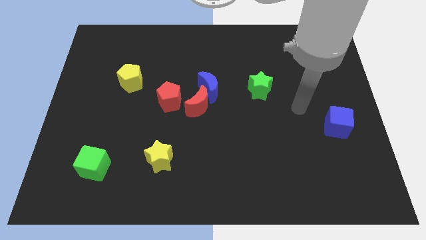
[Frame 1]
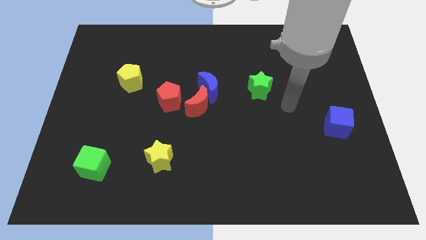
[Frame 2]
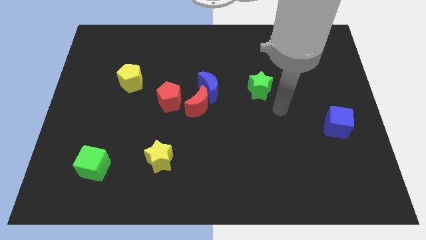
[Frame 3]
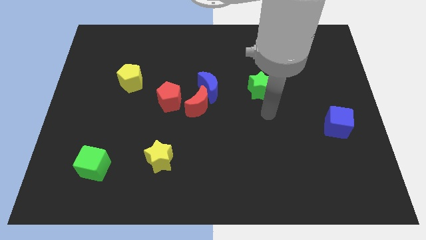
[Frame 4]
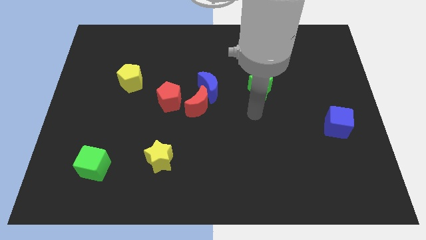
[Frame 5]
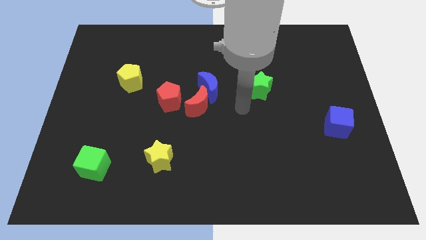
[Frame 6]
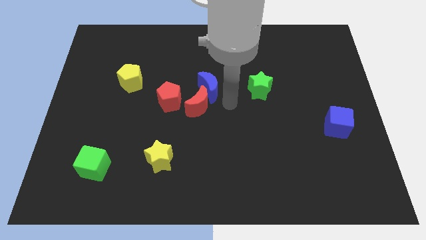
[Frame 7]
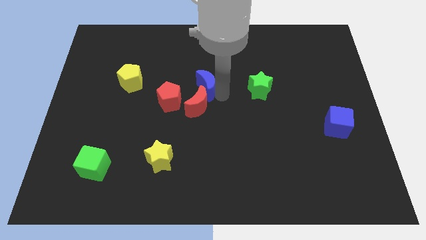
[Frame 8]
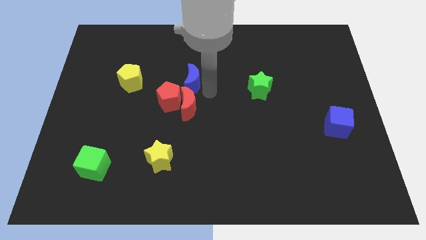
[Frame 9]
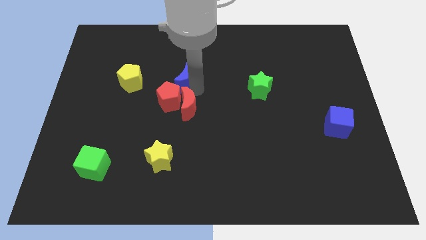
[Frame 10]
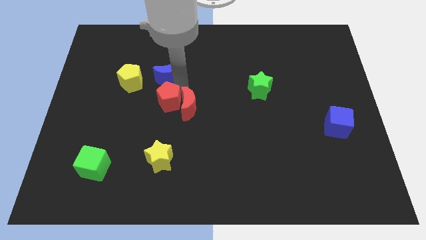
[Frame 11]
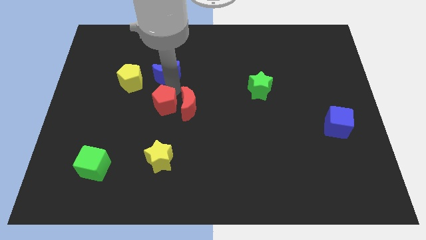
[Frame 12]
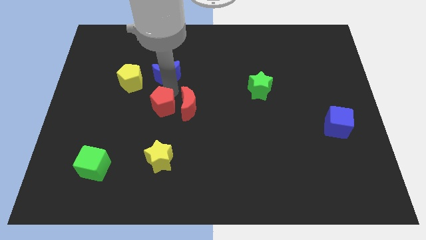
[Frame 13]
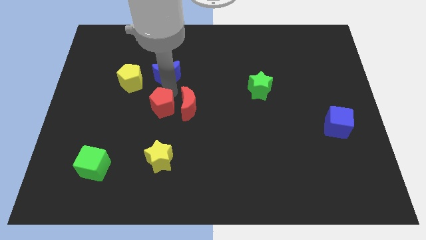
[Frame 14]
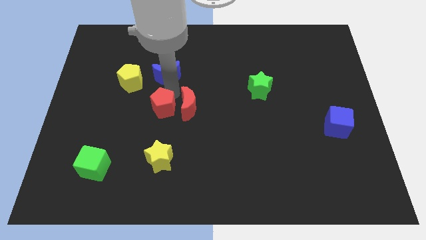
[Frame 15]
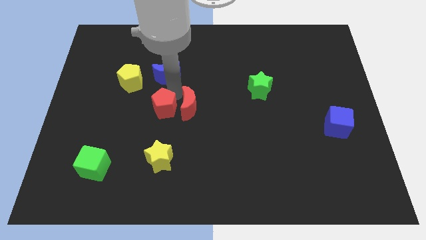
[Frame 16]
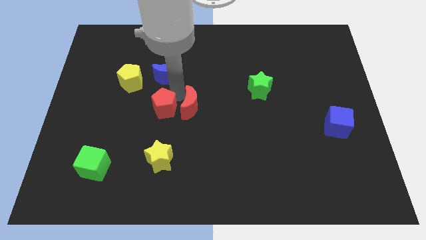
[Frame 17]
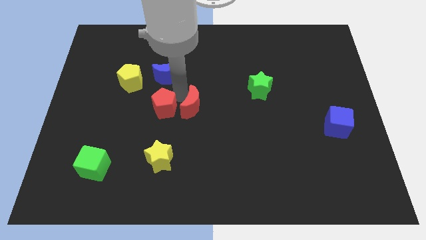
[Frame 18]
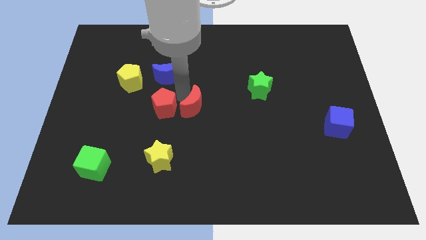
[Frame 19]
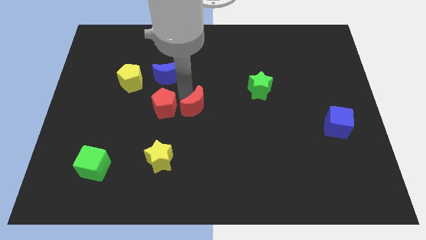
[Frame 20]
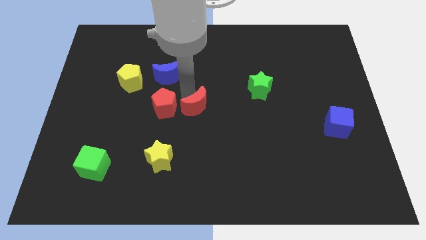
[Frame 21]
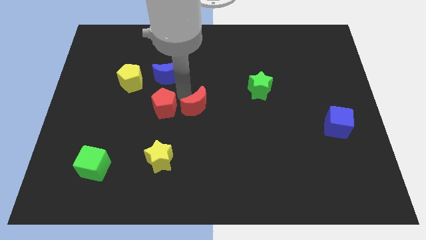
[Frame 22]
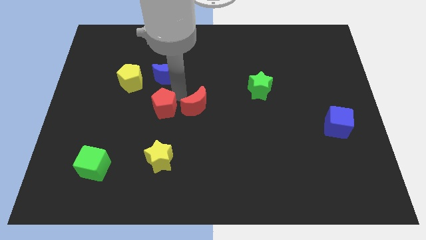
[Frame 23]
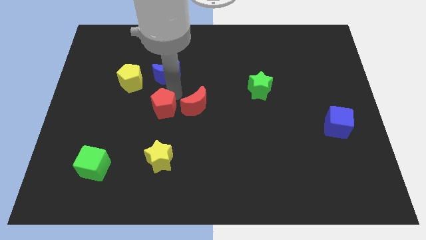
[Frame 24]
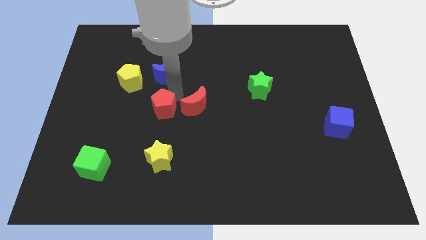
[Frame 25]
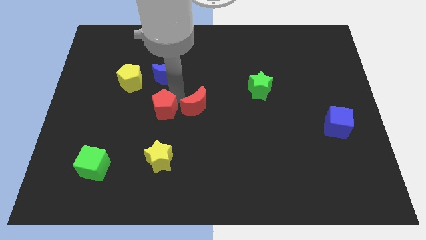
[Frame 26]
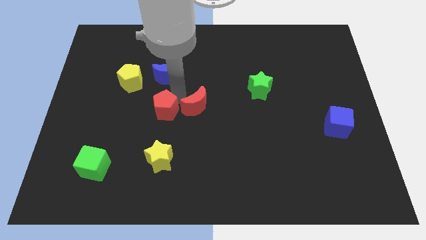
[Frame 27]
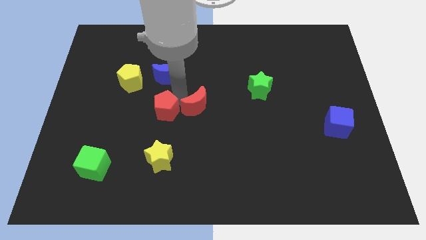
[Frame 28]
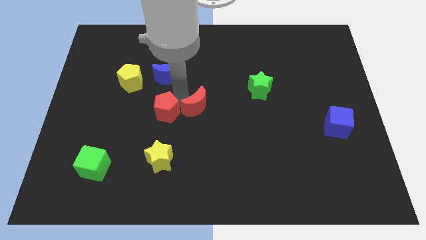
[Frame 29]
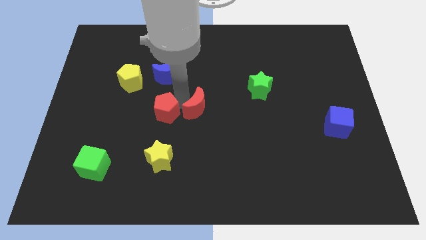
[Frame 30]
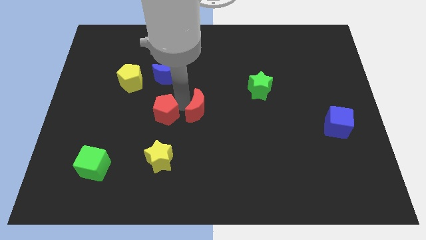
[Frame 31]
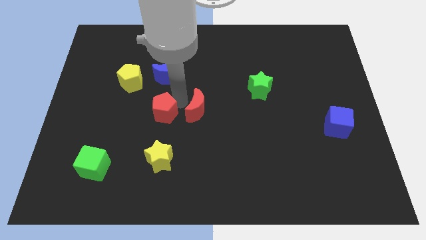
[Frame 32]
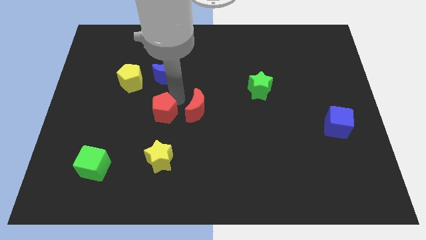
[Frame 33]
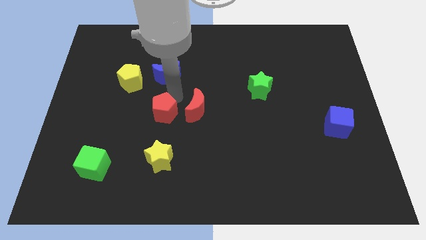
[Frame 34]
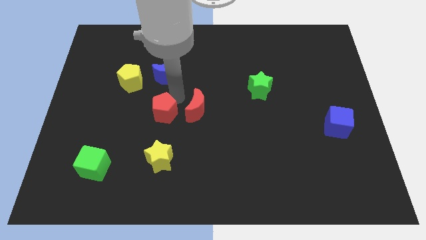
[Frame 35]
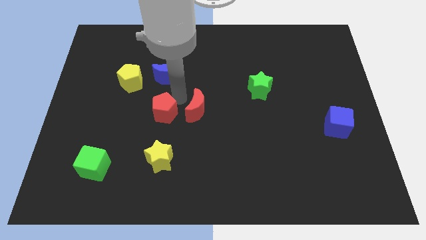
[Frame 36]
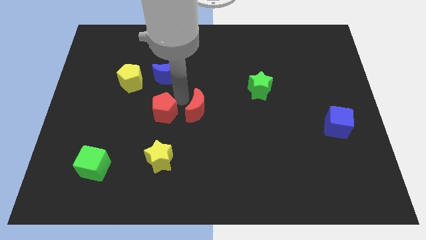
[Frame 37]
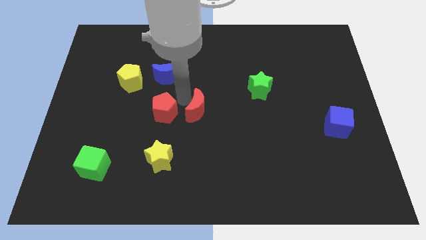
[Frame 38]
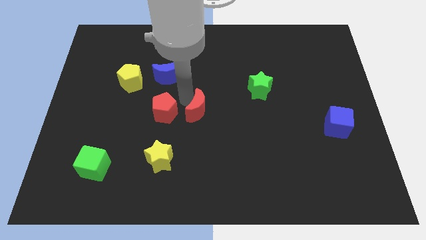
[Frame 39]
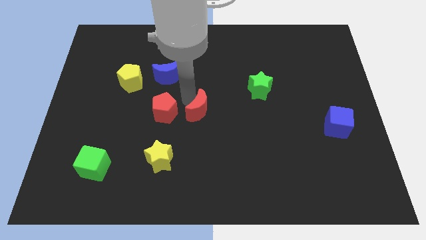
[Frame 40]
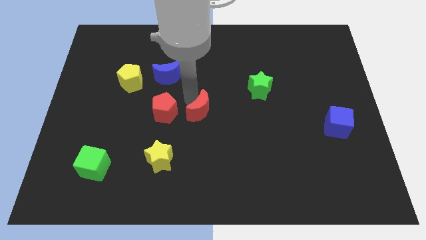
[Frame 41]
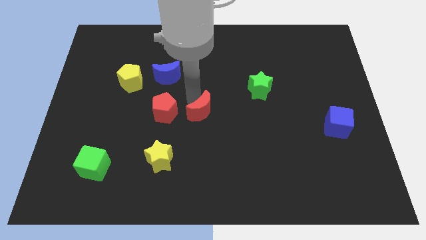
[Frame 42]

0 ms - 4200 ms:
separate the red moon from the blue moon and red pentagon

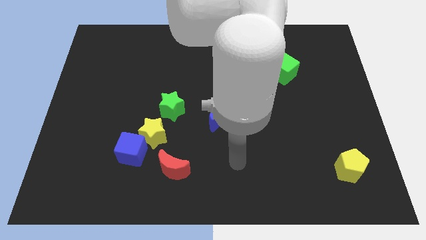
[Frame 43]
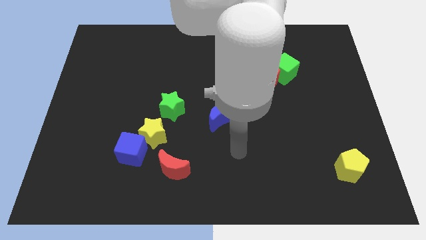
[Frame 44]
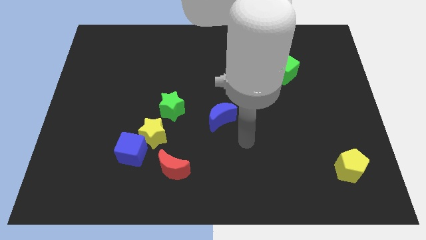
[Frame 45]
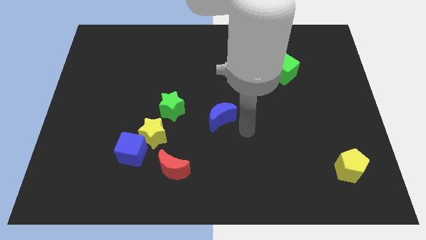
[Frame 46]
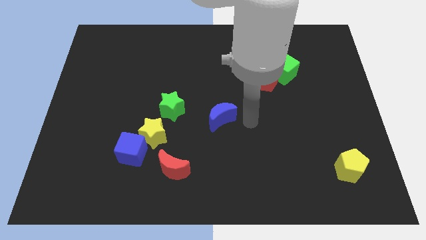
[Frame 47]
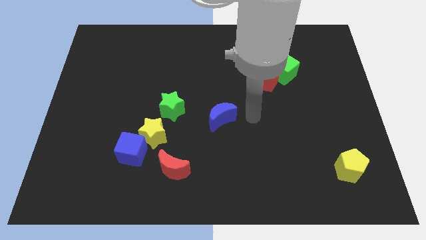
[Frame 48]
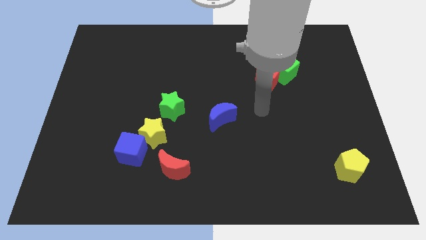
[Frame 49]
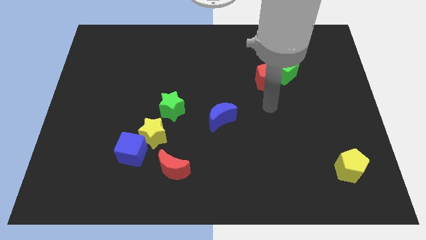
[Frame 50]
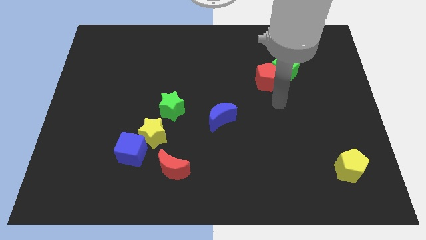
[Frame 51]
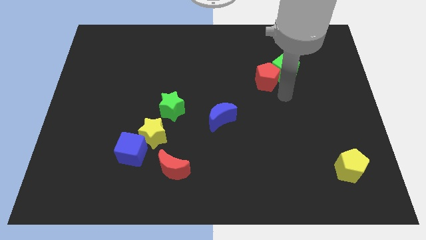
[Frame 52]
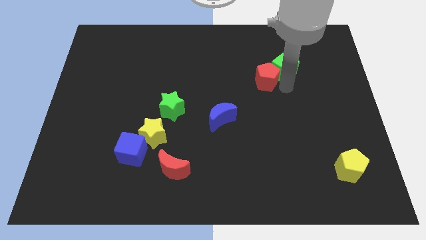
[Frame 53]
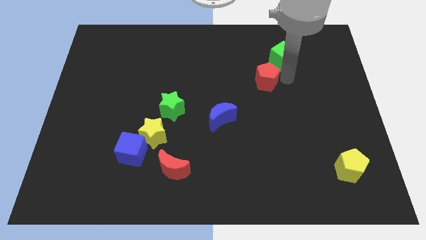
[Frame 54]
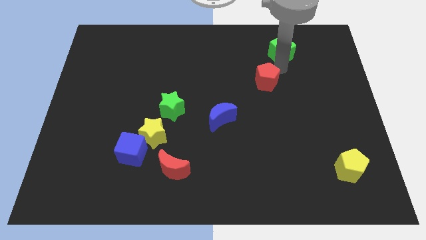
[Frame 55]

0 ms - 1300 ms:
pull the red pentagon apart from the green cube

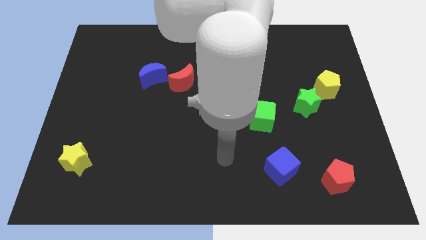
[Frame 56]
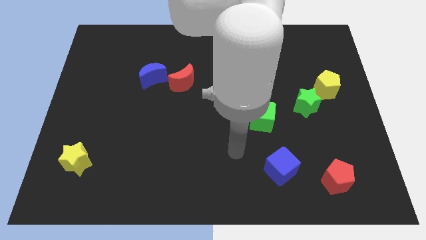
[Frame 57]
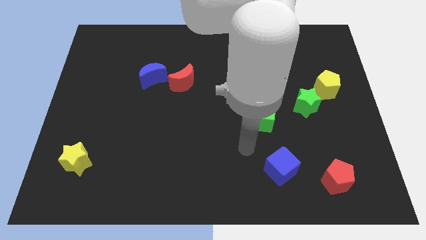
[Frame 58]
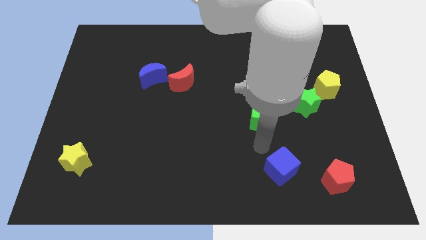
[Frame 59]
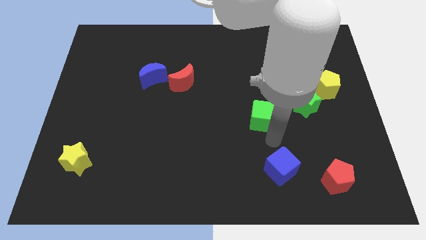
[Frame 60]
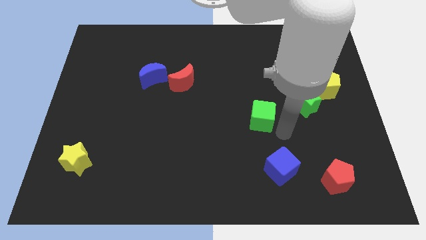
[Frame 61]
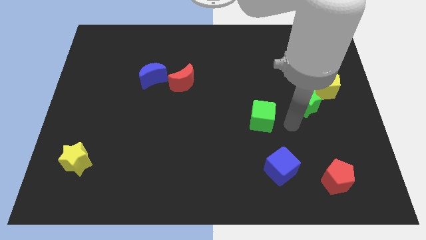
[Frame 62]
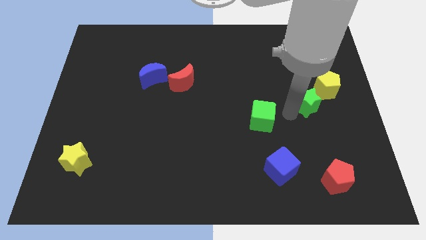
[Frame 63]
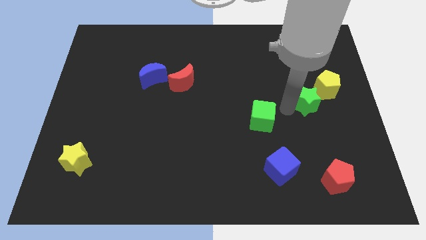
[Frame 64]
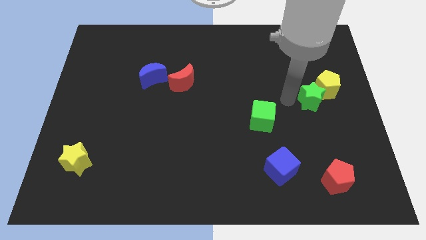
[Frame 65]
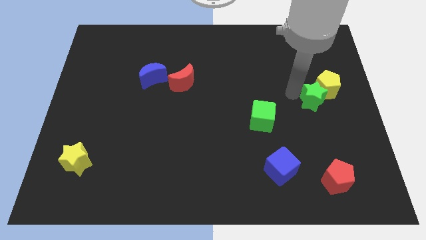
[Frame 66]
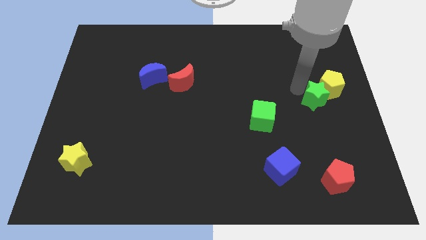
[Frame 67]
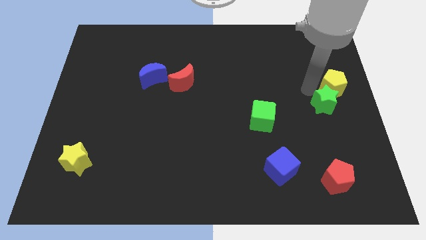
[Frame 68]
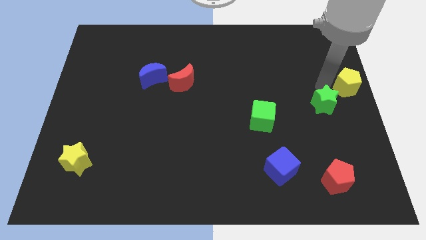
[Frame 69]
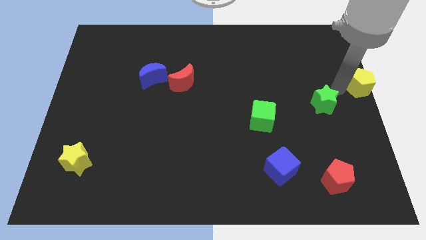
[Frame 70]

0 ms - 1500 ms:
separate the green star from the yellow pentagon

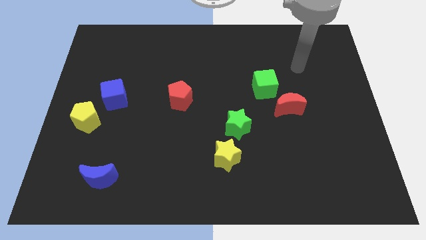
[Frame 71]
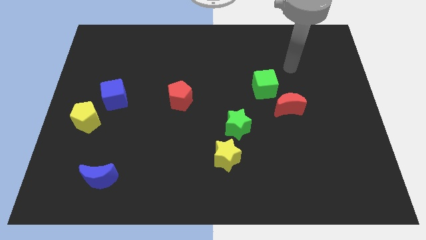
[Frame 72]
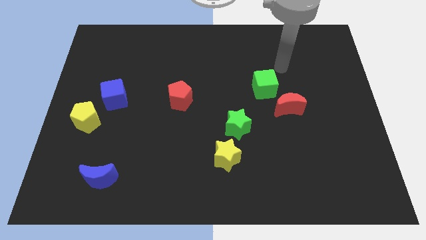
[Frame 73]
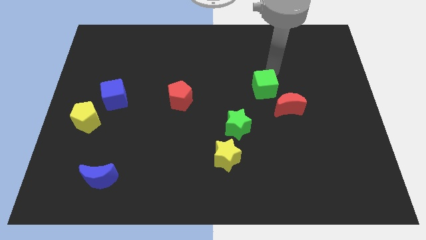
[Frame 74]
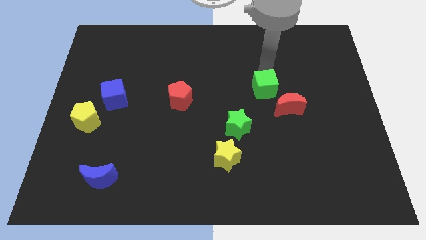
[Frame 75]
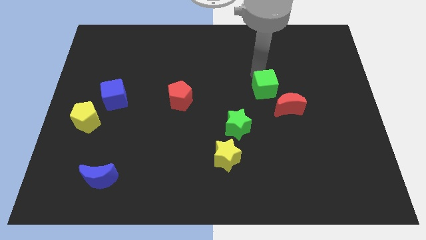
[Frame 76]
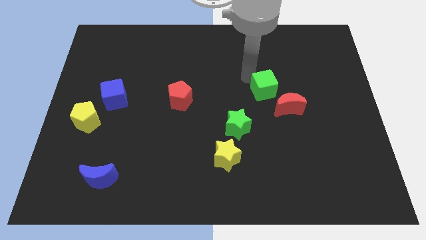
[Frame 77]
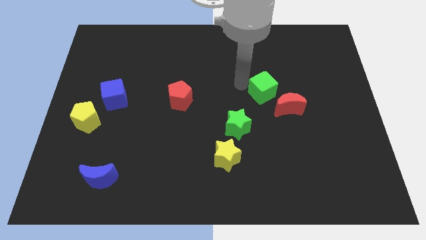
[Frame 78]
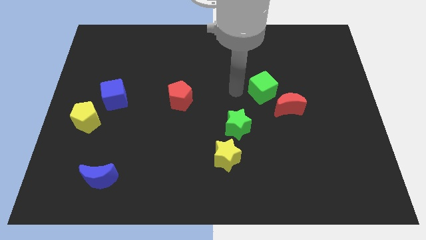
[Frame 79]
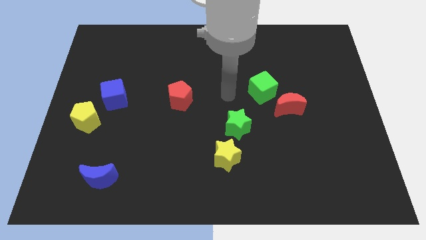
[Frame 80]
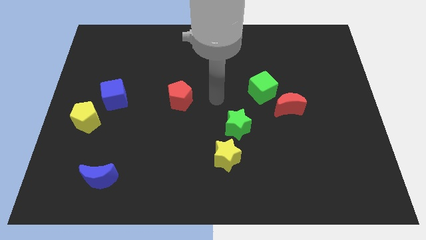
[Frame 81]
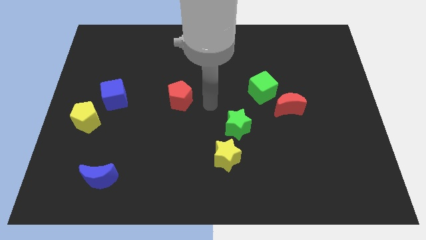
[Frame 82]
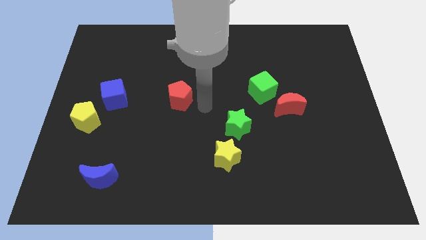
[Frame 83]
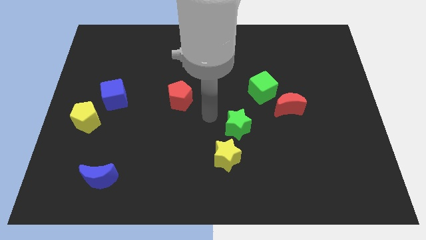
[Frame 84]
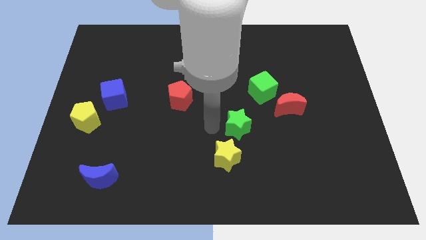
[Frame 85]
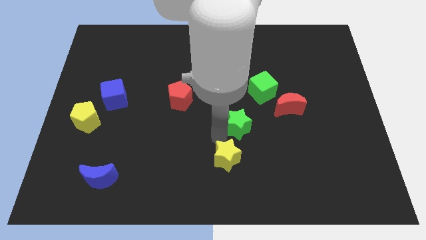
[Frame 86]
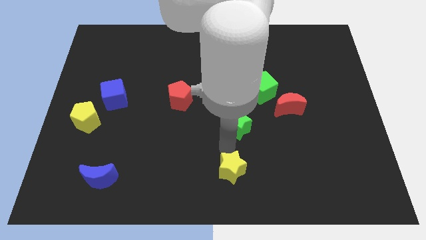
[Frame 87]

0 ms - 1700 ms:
separate the green star from the yellow star

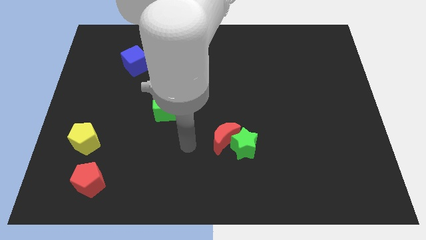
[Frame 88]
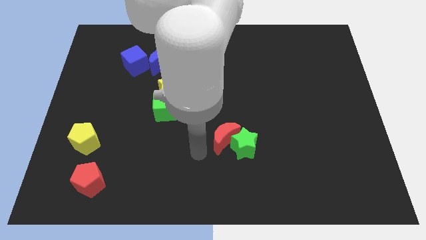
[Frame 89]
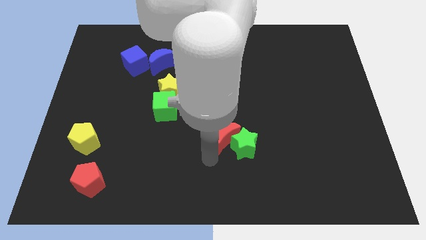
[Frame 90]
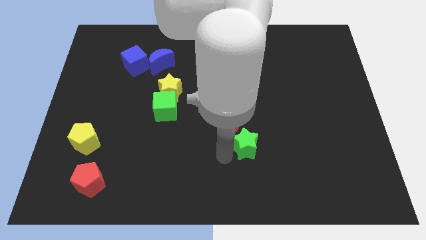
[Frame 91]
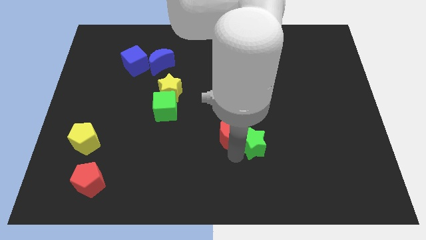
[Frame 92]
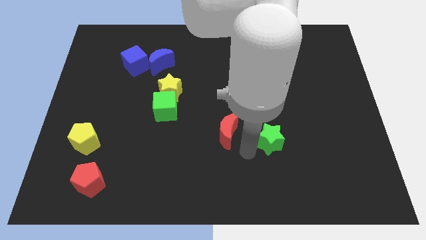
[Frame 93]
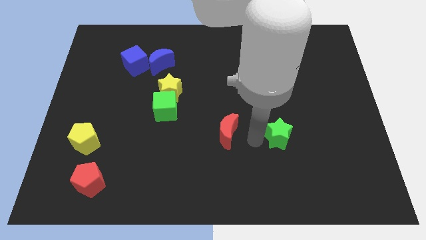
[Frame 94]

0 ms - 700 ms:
move the red moon away from the green star

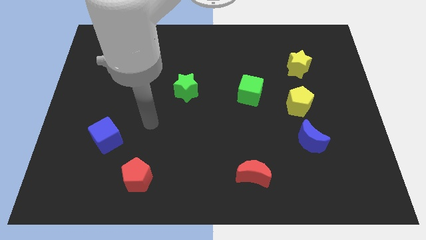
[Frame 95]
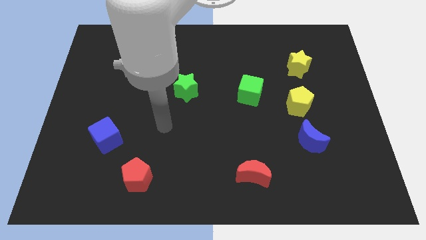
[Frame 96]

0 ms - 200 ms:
pull the blue moon apart from the yellow pentagon
